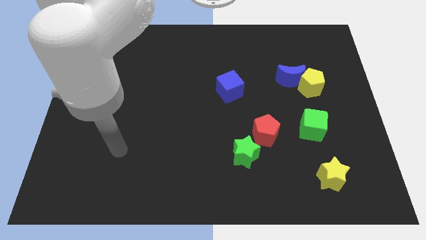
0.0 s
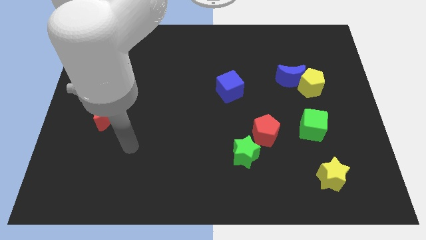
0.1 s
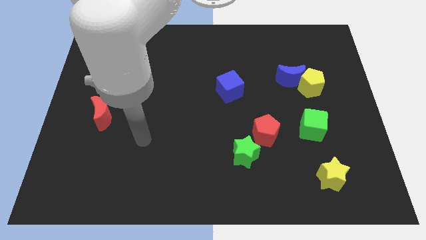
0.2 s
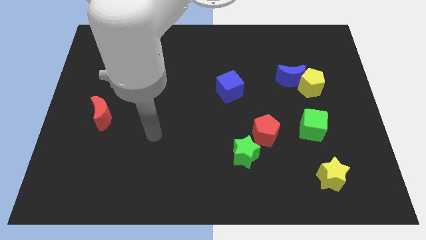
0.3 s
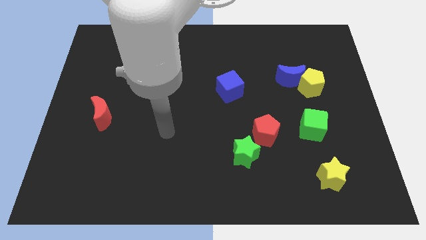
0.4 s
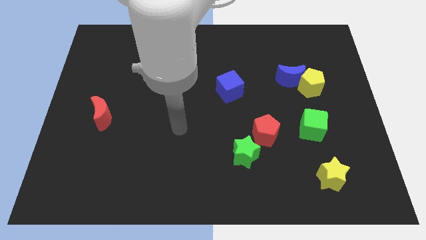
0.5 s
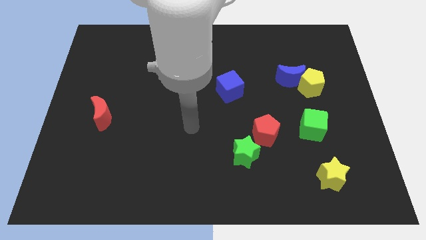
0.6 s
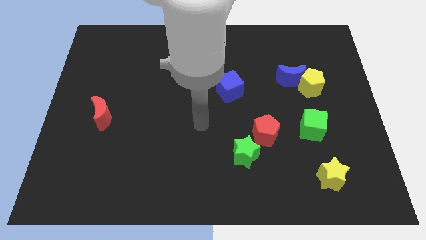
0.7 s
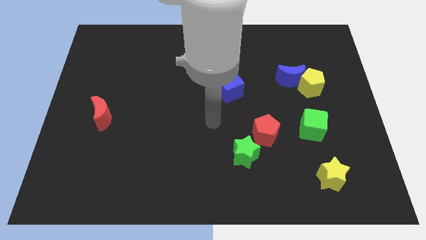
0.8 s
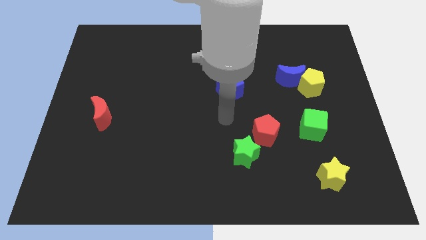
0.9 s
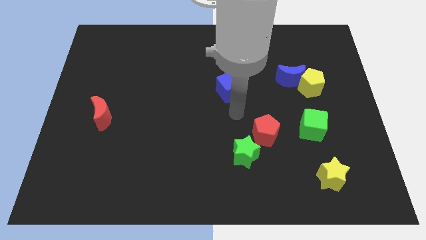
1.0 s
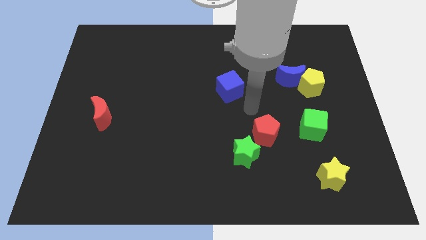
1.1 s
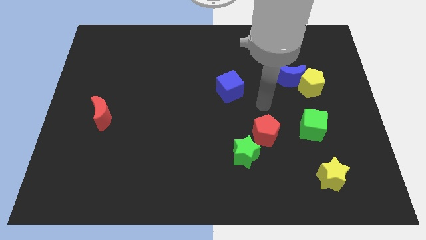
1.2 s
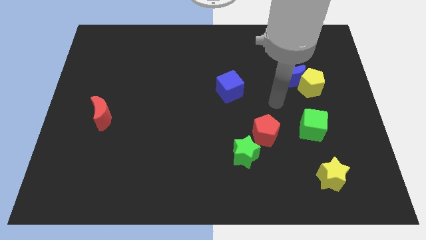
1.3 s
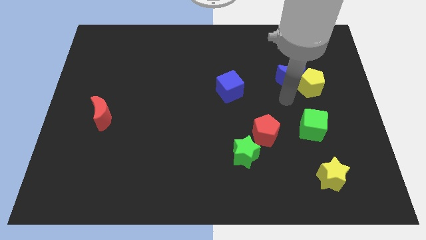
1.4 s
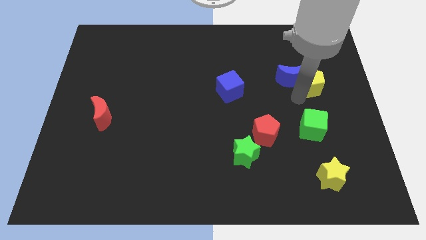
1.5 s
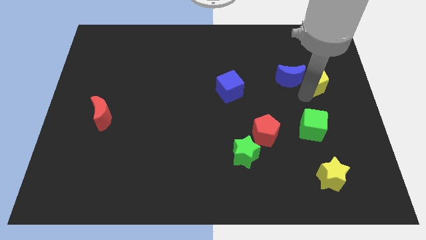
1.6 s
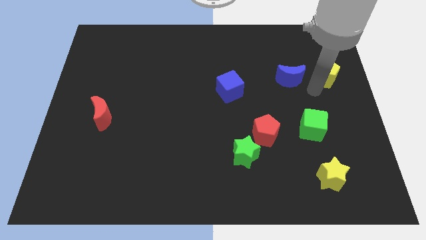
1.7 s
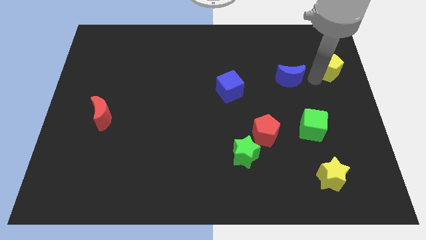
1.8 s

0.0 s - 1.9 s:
pull the blue moon apart from the yellow pentagon

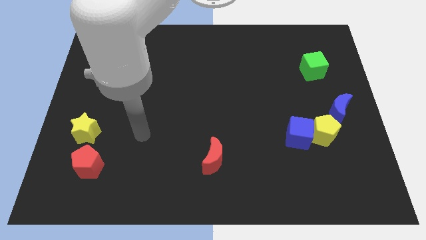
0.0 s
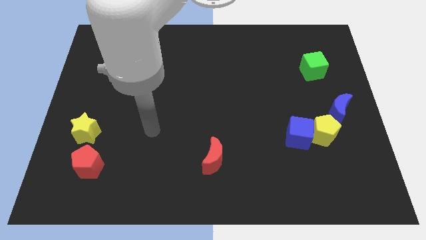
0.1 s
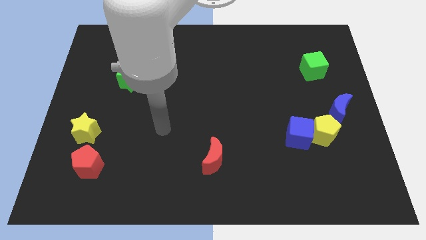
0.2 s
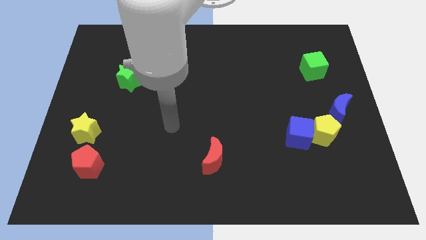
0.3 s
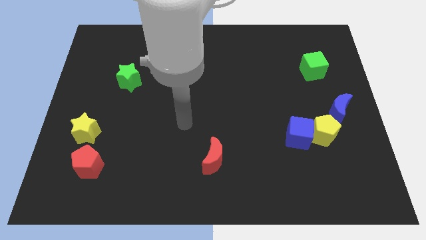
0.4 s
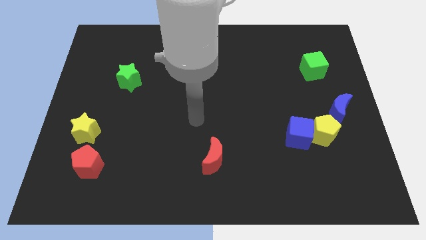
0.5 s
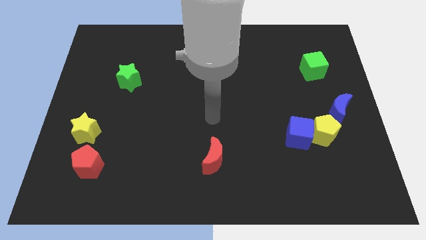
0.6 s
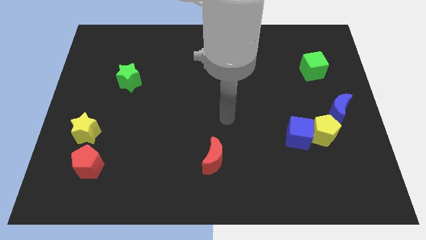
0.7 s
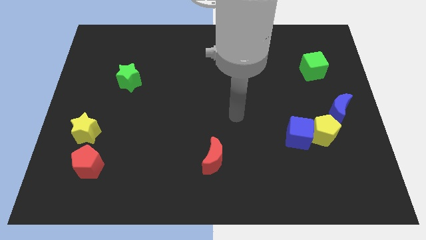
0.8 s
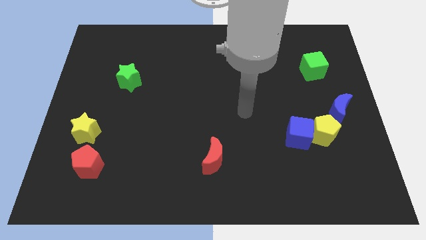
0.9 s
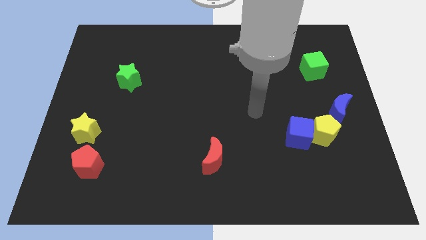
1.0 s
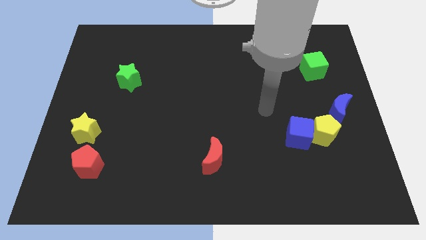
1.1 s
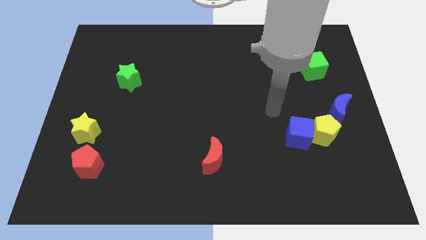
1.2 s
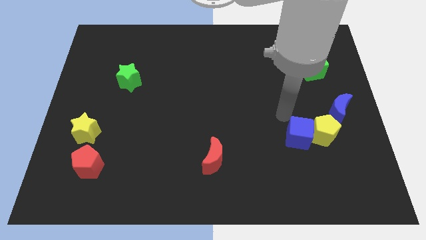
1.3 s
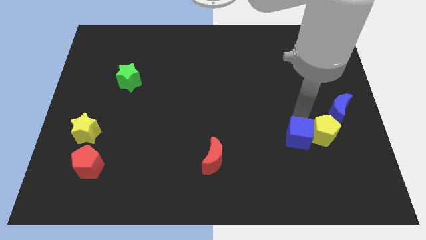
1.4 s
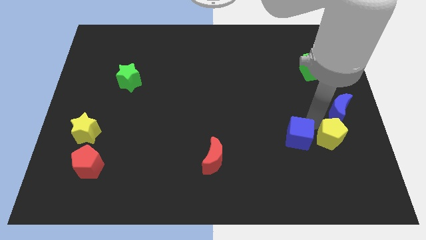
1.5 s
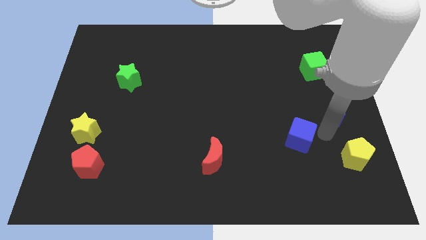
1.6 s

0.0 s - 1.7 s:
separate the blue cube from the yellow pentagon

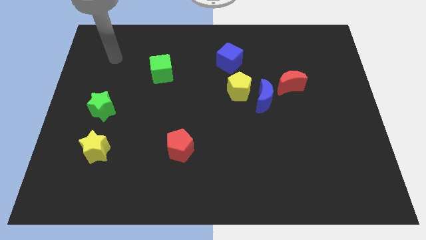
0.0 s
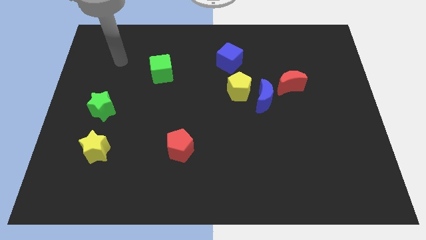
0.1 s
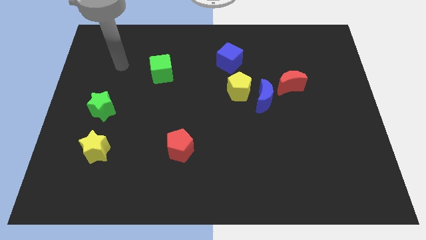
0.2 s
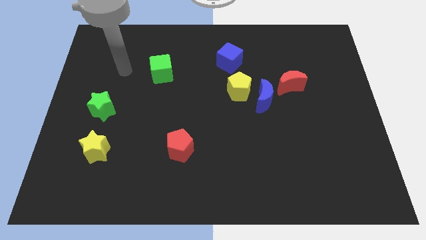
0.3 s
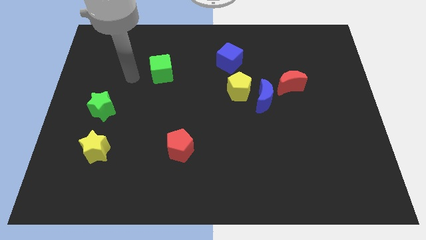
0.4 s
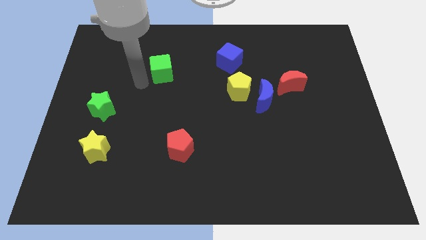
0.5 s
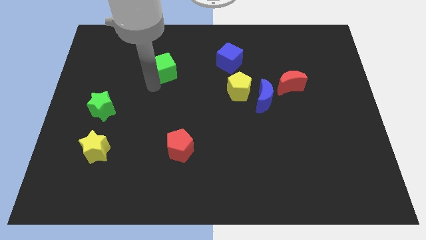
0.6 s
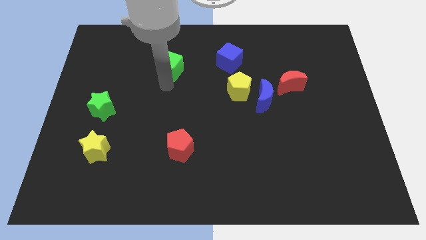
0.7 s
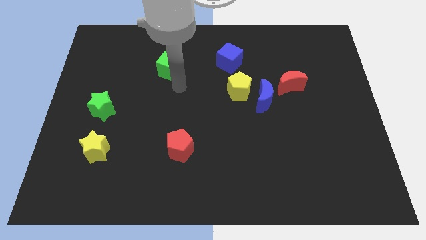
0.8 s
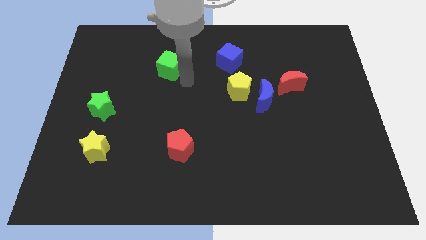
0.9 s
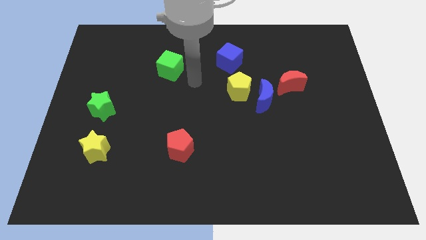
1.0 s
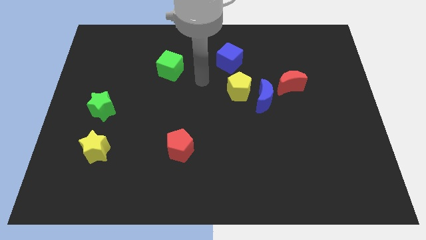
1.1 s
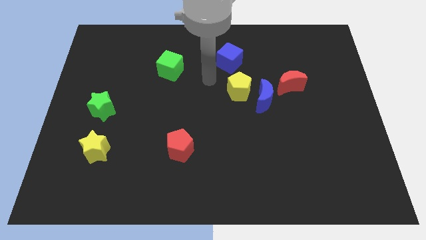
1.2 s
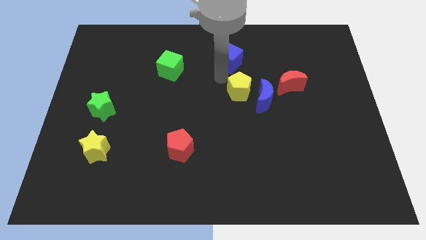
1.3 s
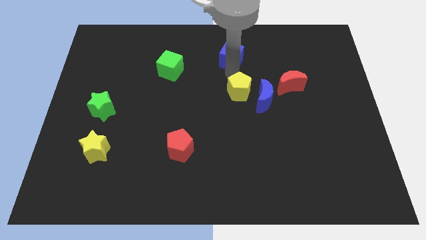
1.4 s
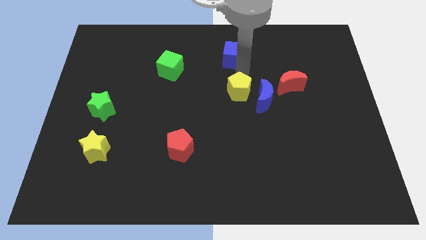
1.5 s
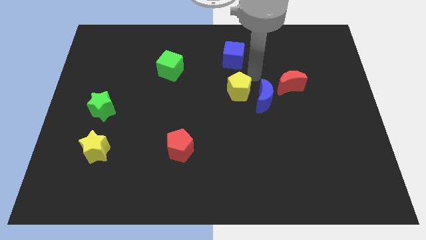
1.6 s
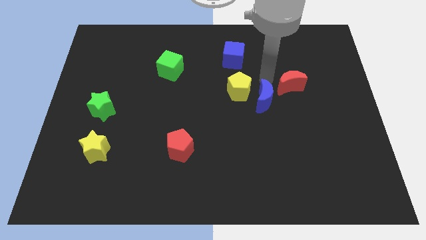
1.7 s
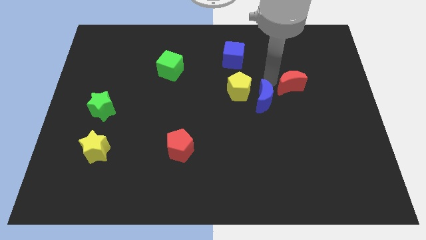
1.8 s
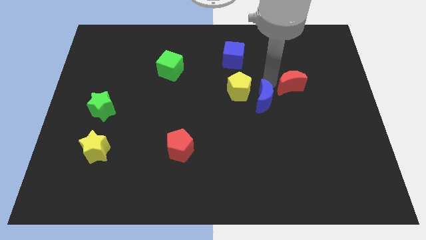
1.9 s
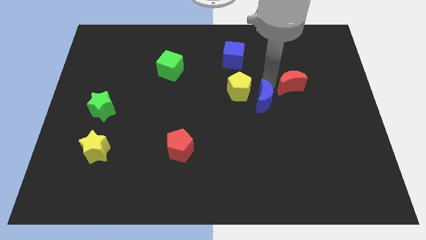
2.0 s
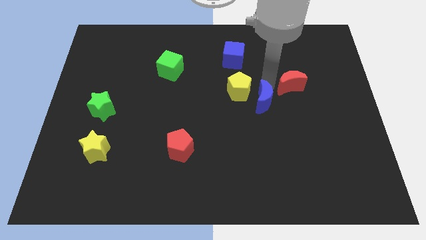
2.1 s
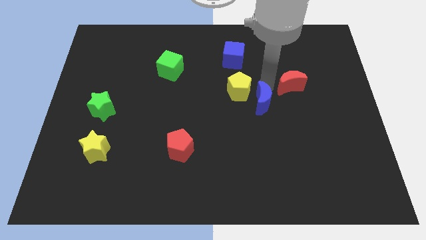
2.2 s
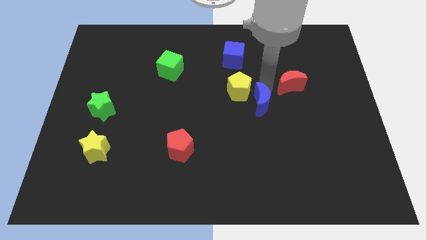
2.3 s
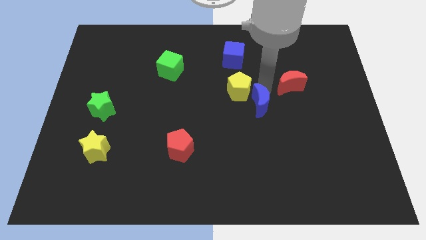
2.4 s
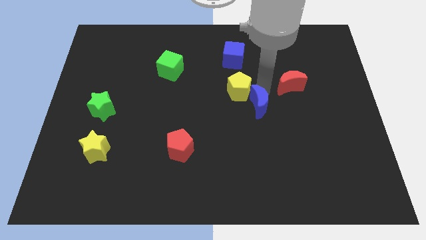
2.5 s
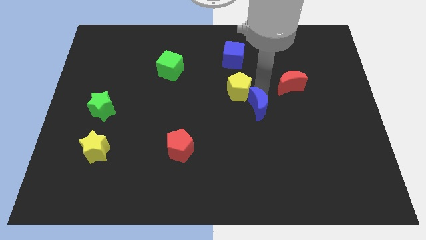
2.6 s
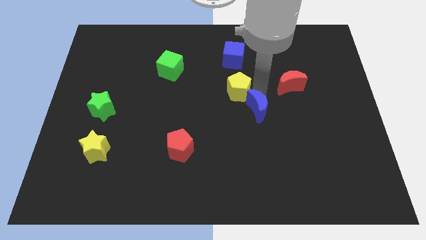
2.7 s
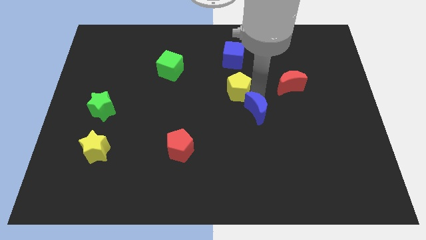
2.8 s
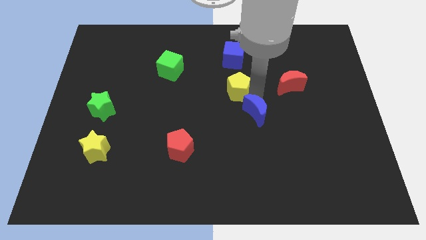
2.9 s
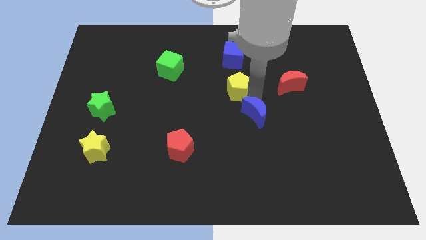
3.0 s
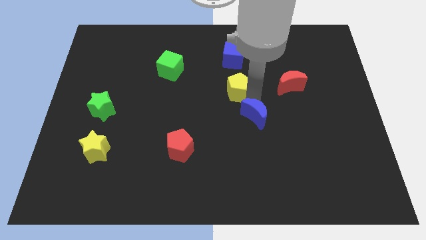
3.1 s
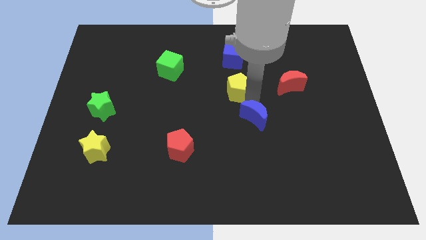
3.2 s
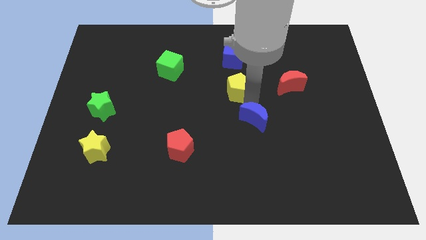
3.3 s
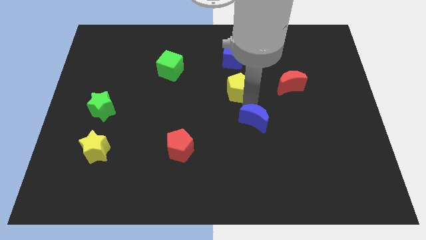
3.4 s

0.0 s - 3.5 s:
separate the blue moon from the yellow pentagon and red moon

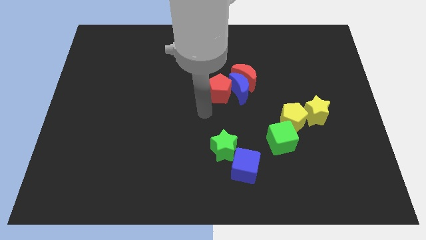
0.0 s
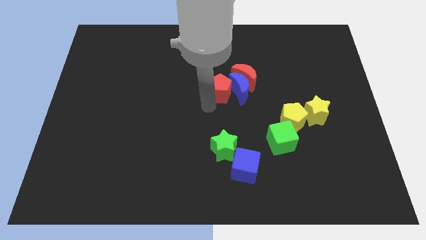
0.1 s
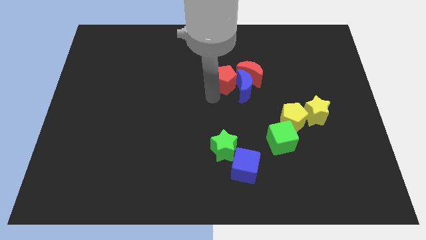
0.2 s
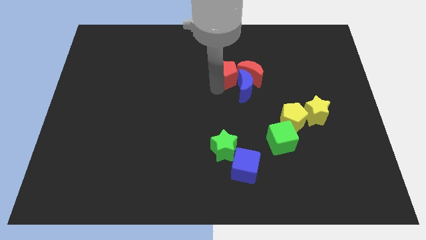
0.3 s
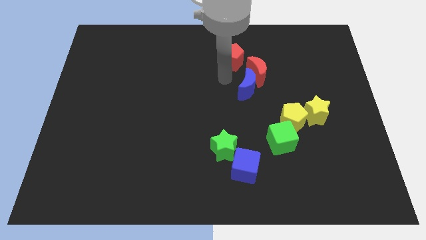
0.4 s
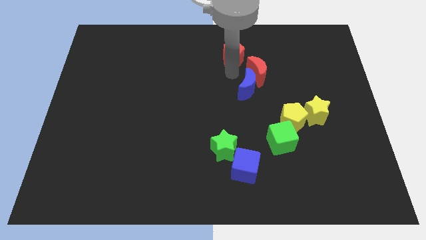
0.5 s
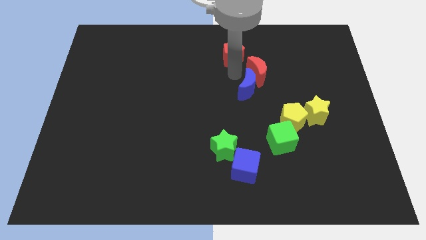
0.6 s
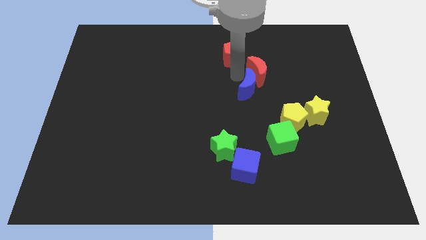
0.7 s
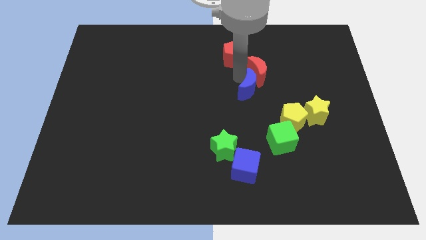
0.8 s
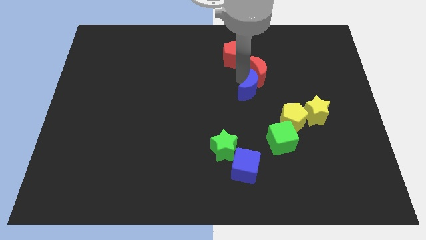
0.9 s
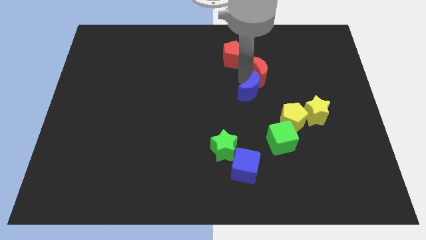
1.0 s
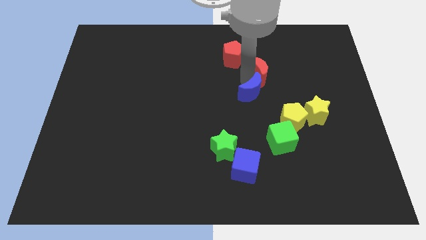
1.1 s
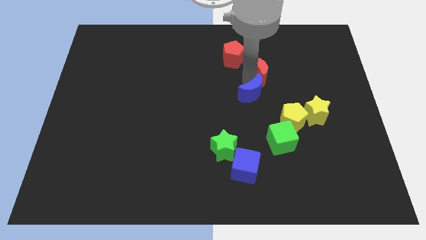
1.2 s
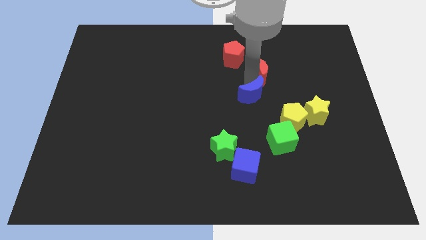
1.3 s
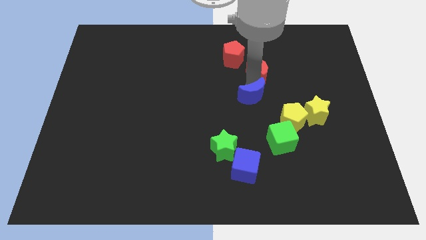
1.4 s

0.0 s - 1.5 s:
pull the blue moon apart from the red moon and red pentagon

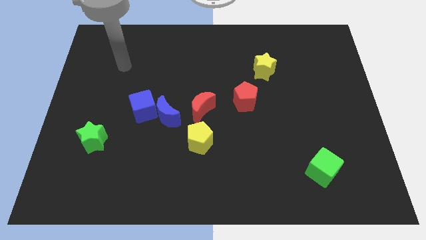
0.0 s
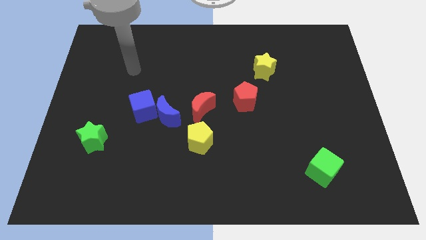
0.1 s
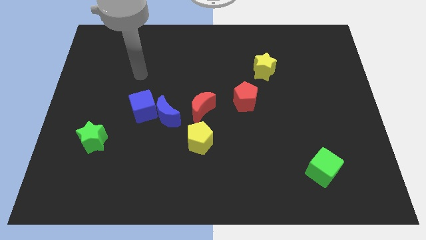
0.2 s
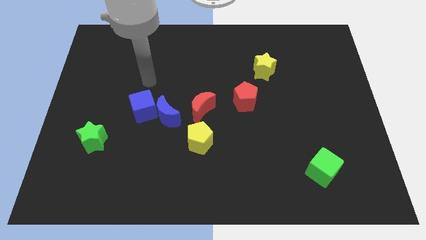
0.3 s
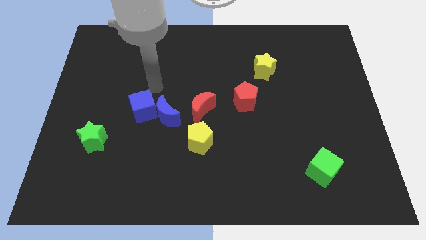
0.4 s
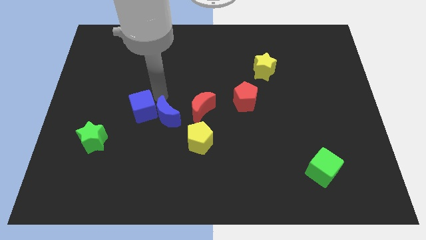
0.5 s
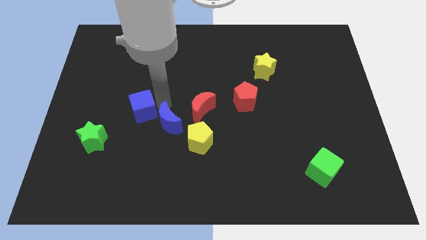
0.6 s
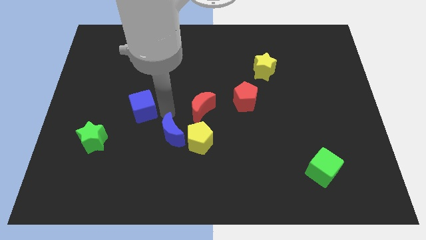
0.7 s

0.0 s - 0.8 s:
pull the blue cube apart from the blue moon
